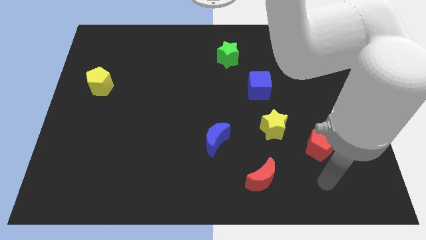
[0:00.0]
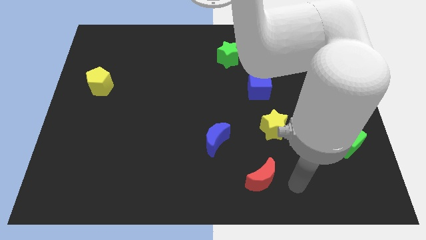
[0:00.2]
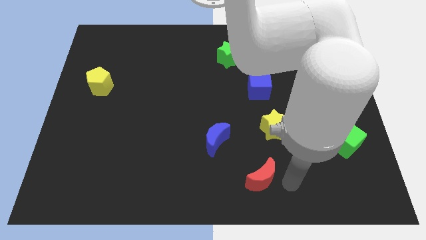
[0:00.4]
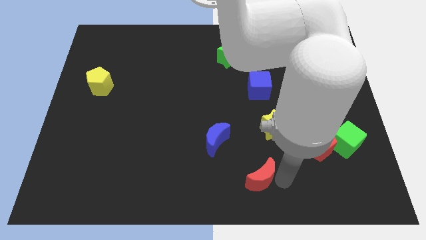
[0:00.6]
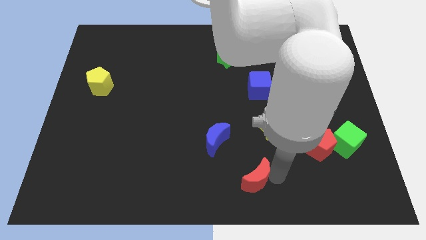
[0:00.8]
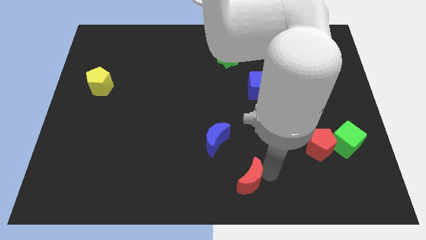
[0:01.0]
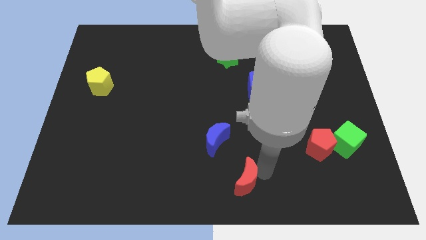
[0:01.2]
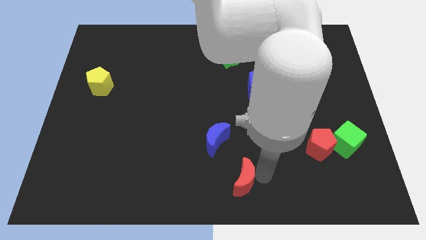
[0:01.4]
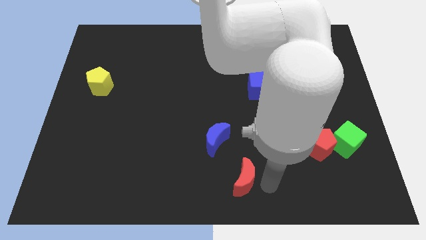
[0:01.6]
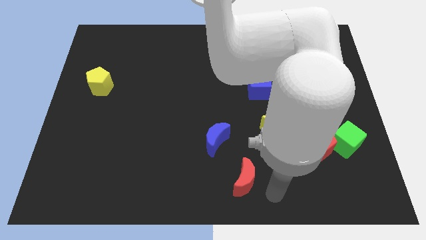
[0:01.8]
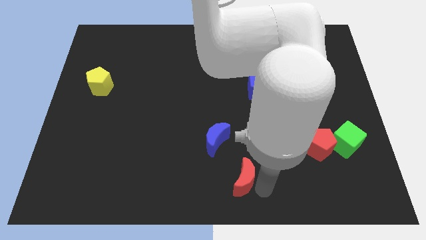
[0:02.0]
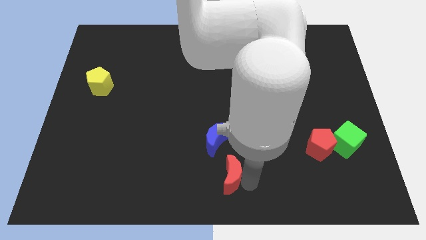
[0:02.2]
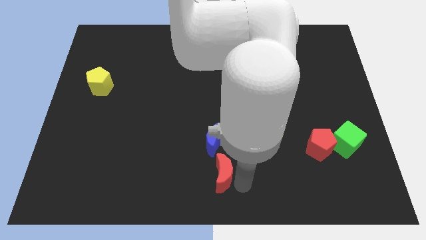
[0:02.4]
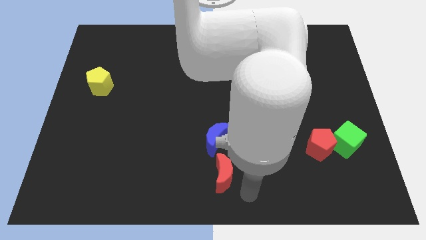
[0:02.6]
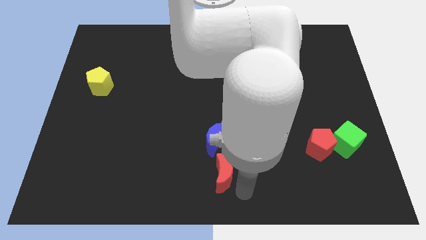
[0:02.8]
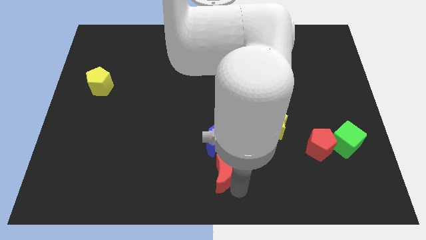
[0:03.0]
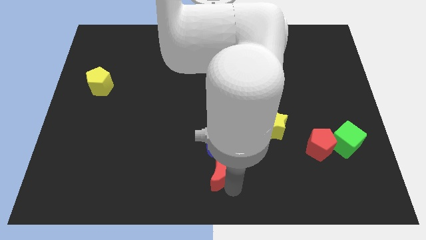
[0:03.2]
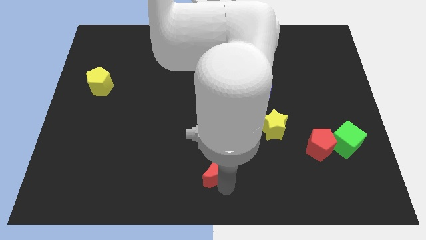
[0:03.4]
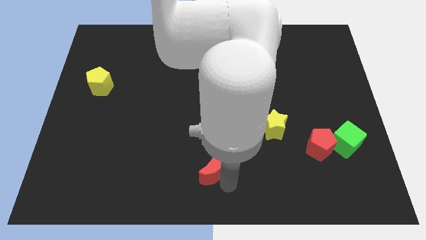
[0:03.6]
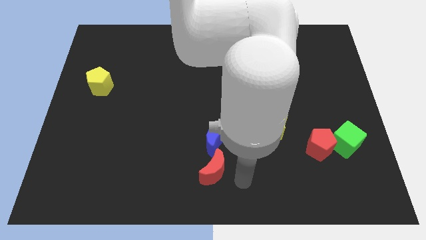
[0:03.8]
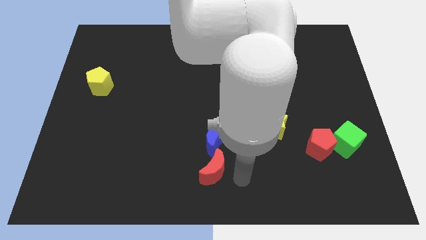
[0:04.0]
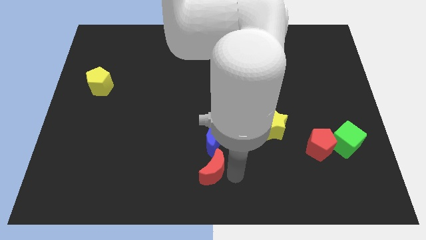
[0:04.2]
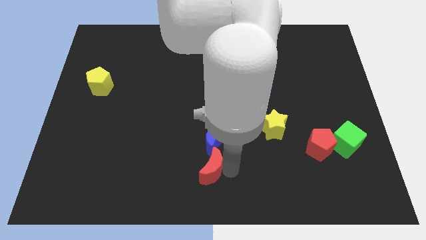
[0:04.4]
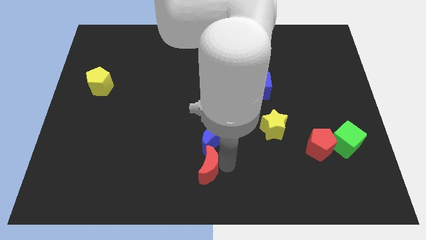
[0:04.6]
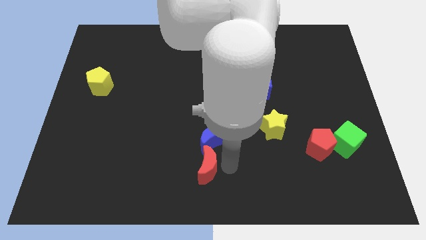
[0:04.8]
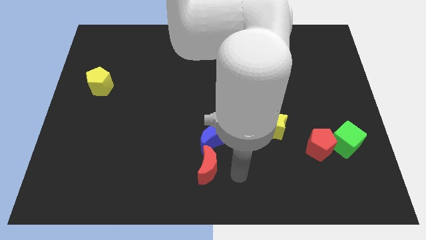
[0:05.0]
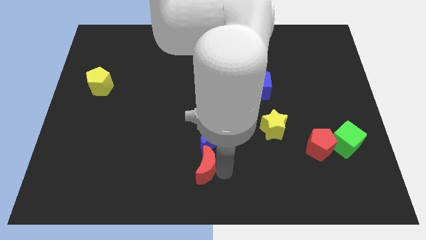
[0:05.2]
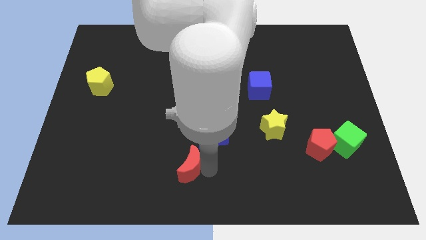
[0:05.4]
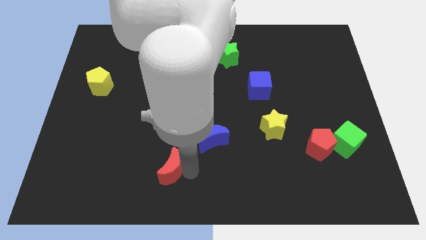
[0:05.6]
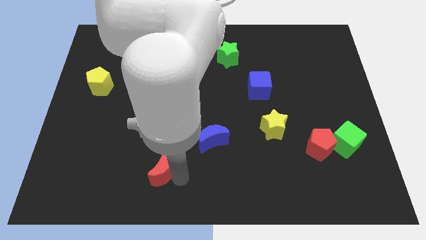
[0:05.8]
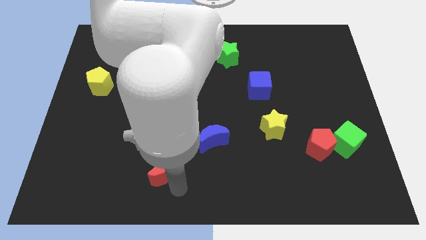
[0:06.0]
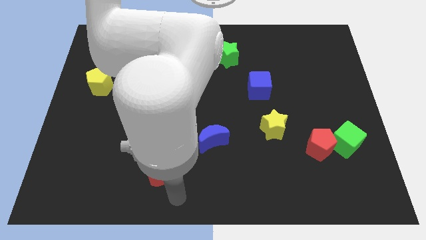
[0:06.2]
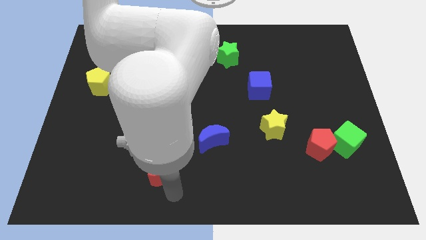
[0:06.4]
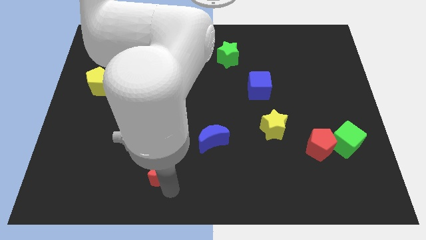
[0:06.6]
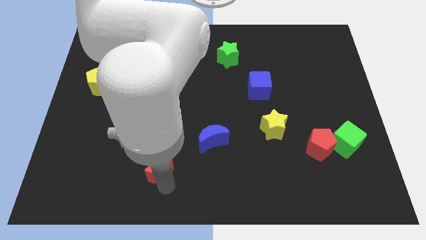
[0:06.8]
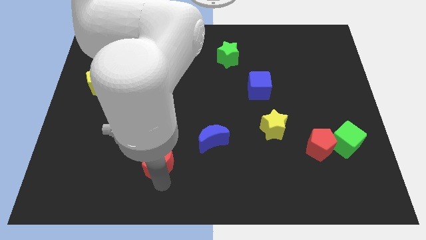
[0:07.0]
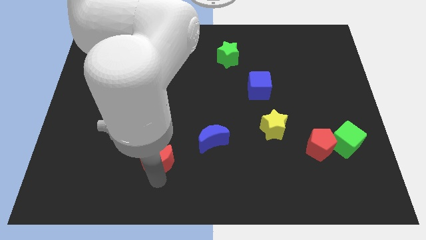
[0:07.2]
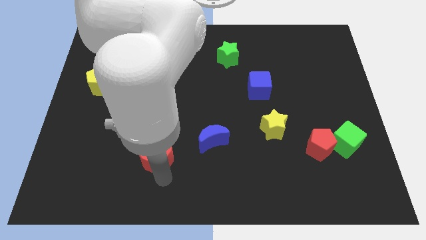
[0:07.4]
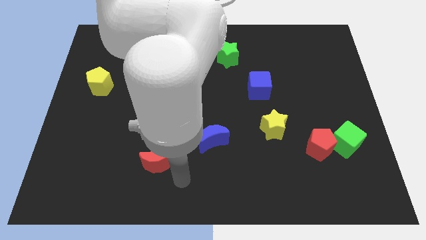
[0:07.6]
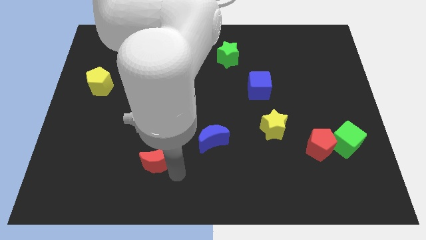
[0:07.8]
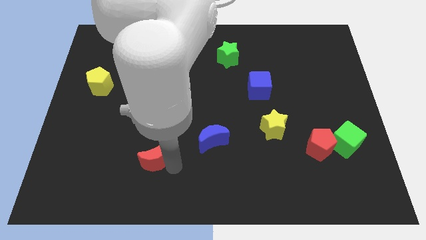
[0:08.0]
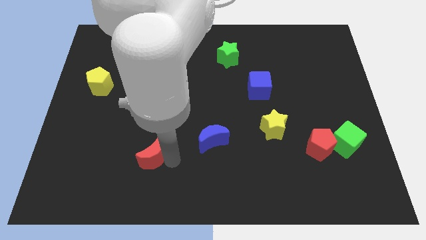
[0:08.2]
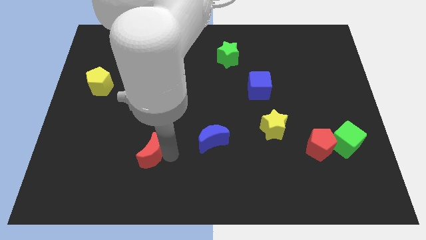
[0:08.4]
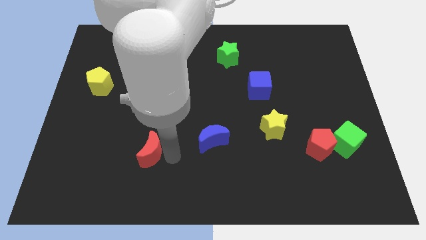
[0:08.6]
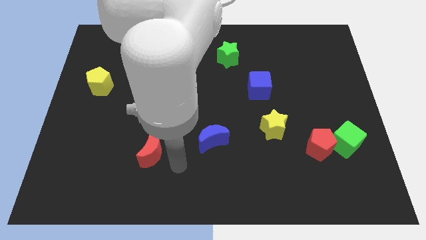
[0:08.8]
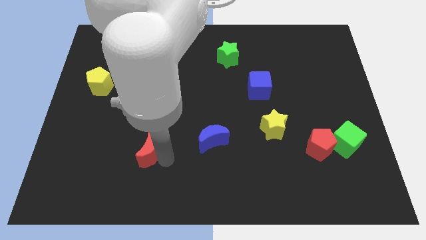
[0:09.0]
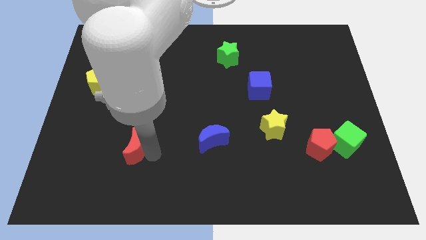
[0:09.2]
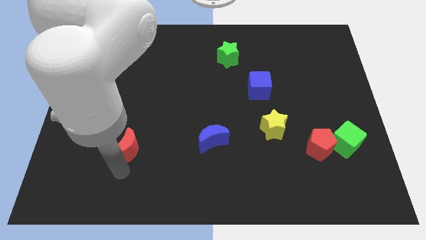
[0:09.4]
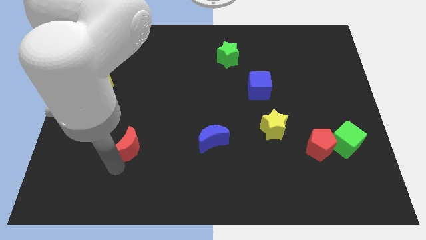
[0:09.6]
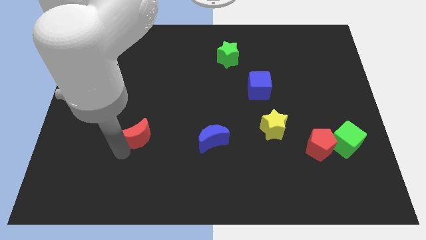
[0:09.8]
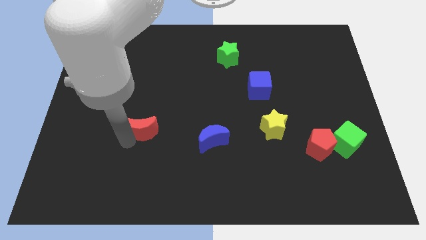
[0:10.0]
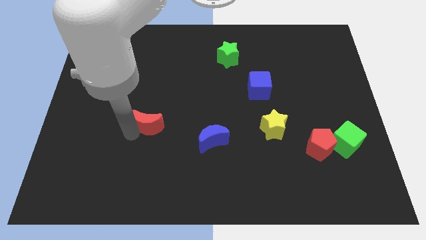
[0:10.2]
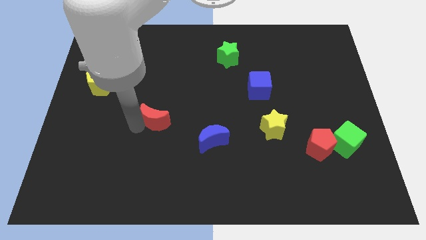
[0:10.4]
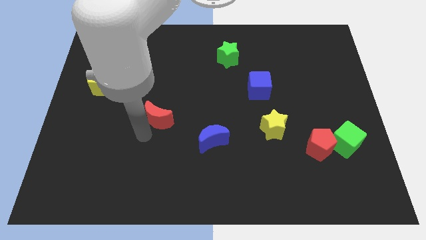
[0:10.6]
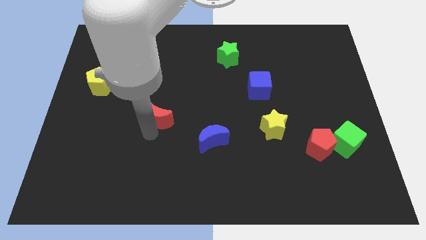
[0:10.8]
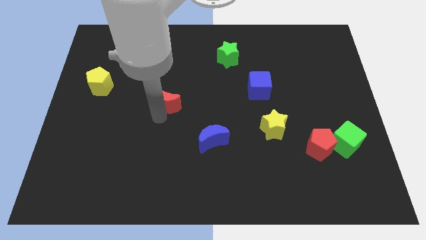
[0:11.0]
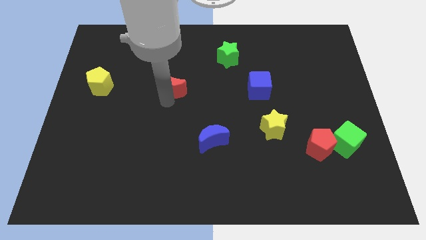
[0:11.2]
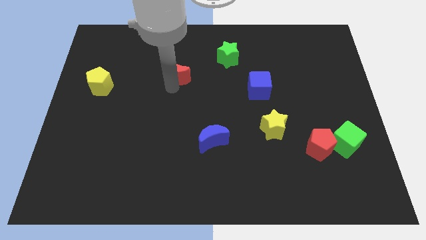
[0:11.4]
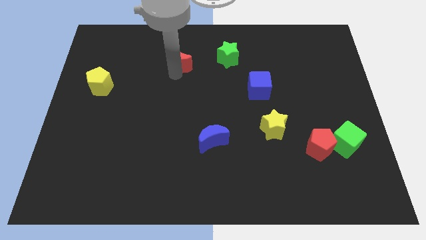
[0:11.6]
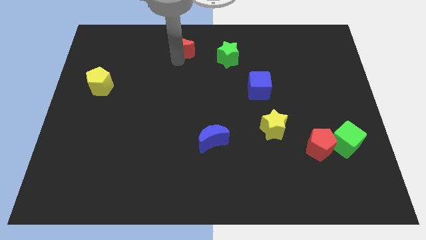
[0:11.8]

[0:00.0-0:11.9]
push the red moon to the towards your base

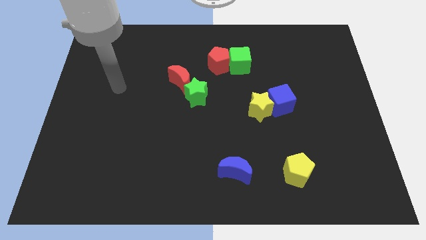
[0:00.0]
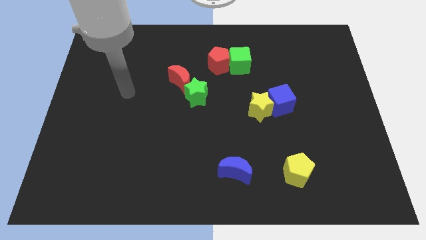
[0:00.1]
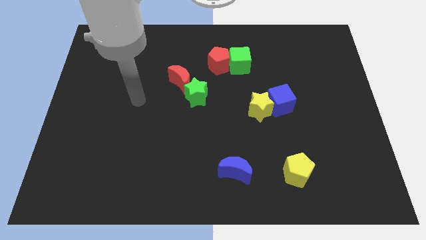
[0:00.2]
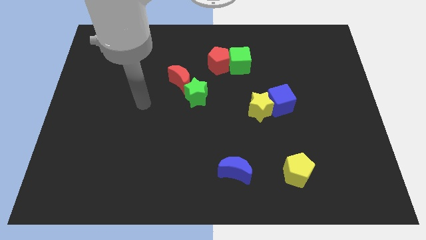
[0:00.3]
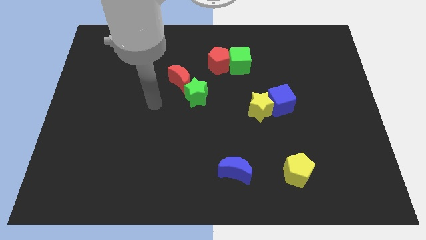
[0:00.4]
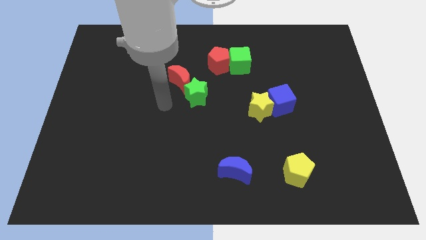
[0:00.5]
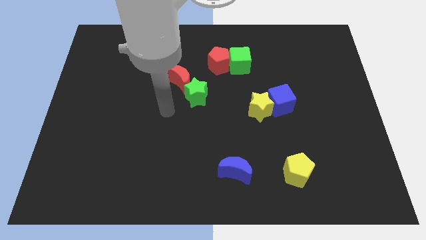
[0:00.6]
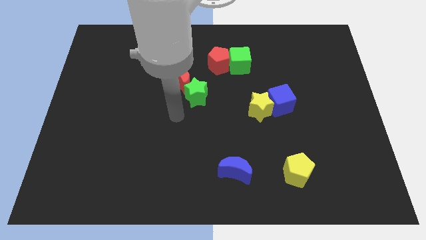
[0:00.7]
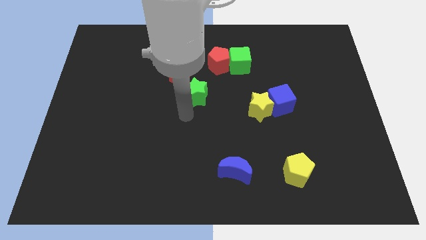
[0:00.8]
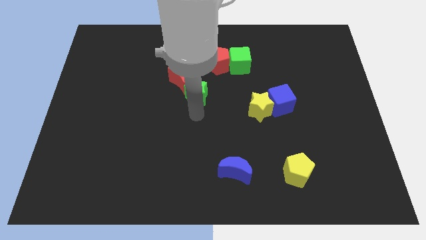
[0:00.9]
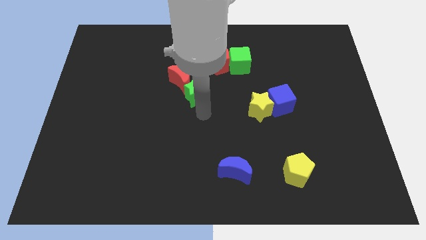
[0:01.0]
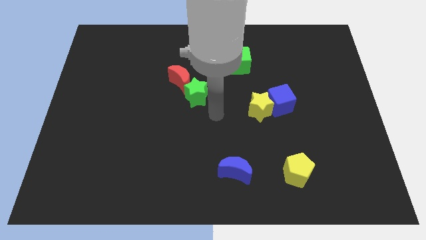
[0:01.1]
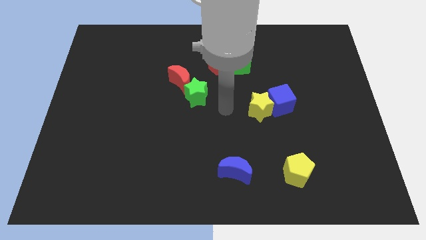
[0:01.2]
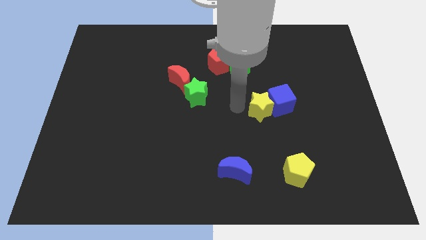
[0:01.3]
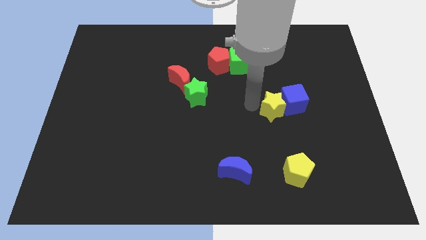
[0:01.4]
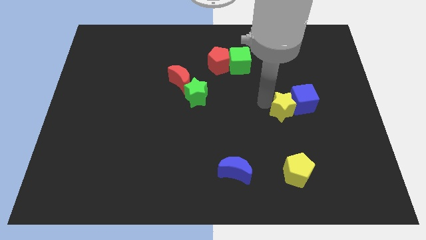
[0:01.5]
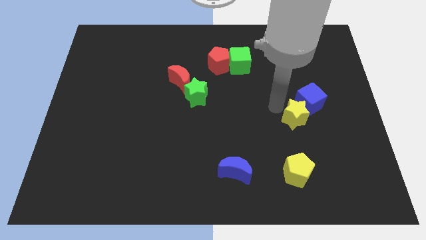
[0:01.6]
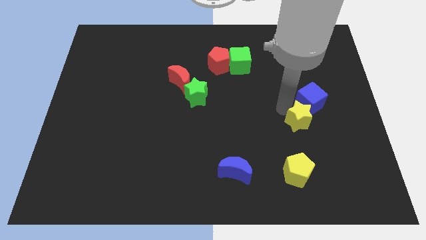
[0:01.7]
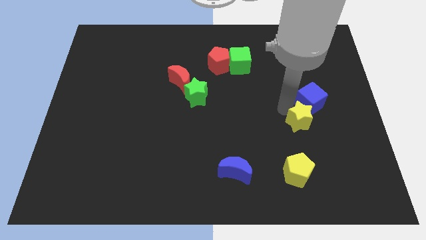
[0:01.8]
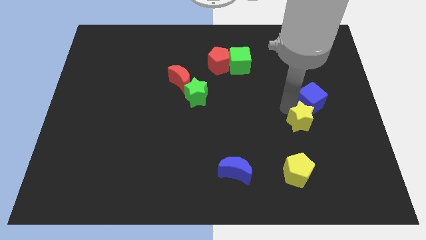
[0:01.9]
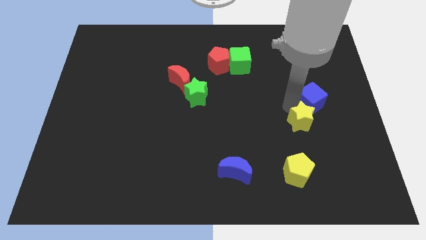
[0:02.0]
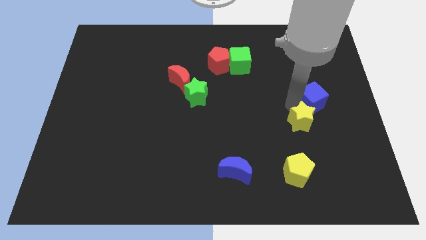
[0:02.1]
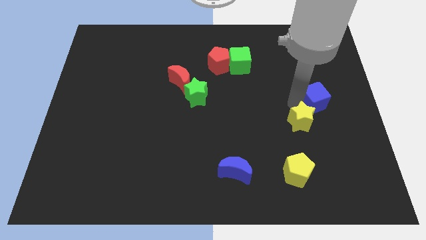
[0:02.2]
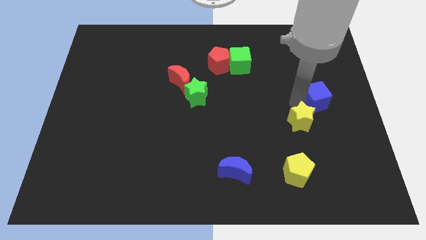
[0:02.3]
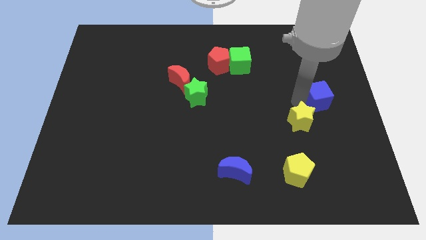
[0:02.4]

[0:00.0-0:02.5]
slide the blue cube to the right side
